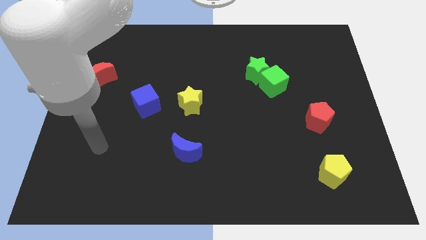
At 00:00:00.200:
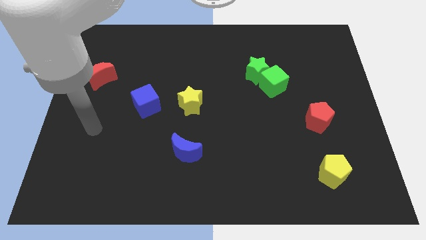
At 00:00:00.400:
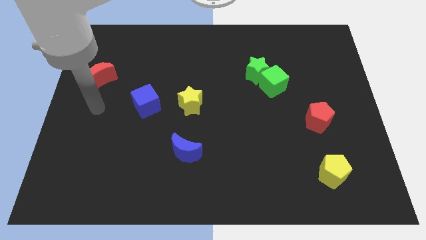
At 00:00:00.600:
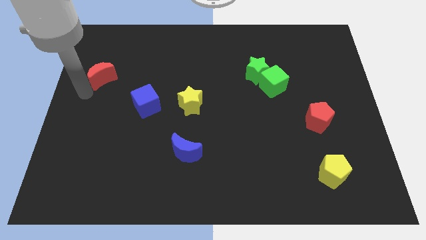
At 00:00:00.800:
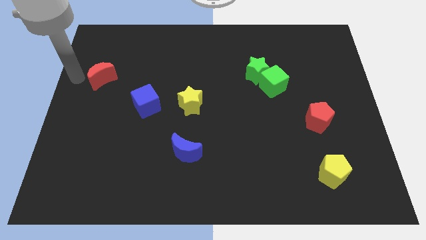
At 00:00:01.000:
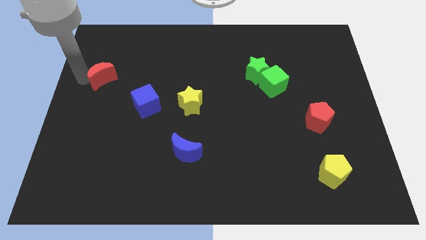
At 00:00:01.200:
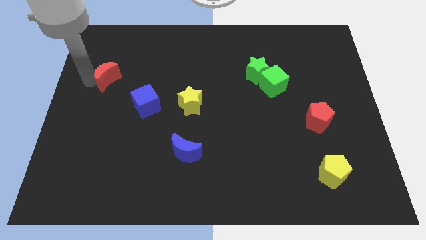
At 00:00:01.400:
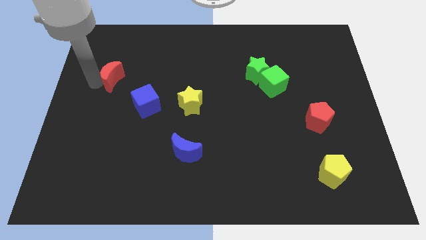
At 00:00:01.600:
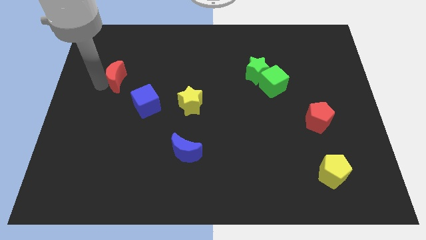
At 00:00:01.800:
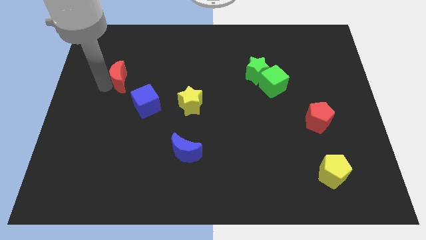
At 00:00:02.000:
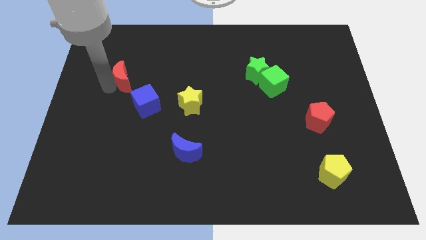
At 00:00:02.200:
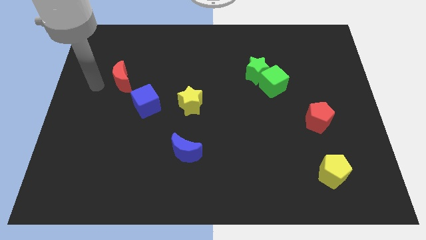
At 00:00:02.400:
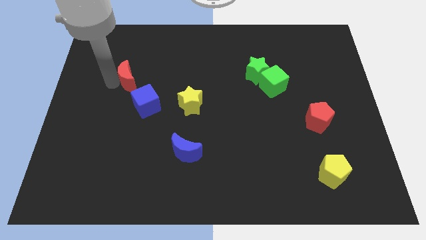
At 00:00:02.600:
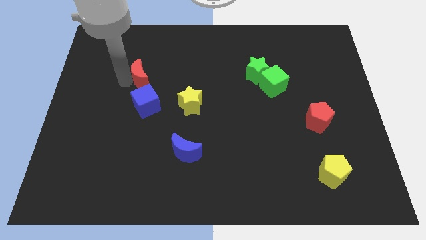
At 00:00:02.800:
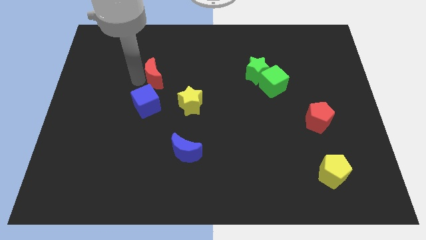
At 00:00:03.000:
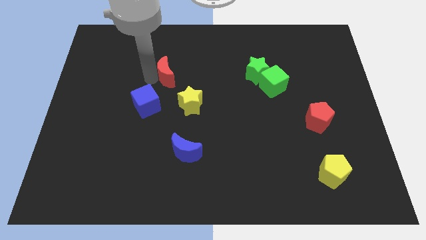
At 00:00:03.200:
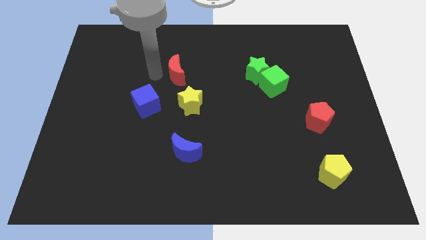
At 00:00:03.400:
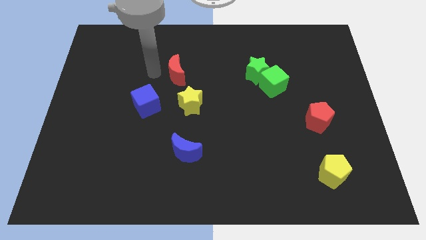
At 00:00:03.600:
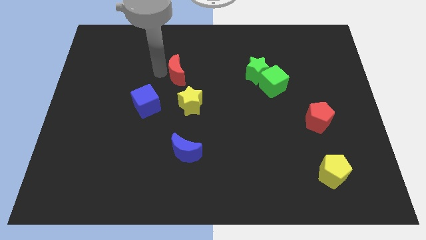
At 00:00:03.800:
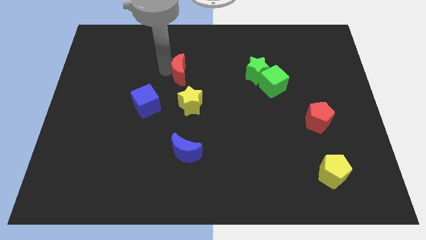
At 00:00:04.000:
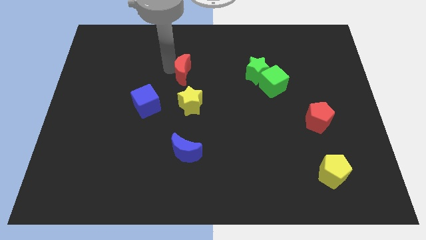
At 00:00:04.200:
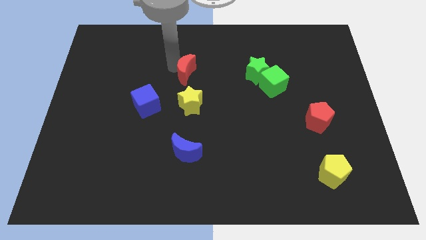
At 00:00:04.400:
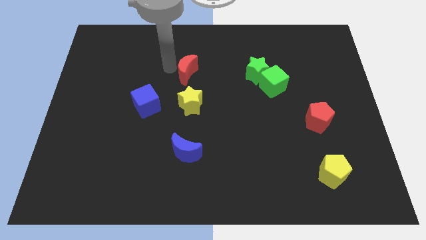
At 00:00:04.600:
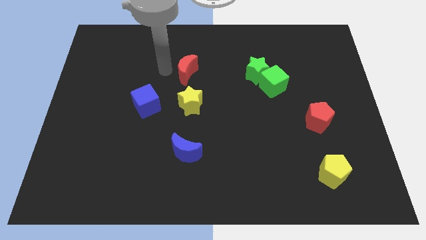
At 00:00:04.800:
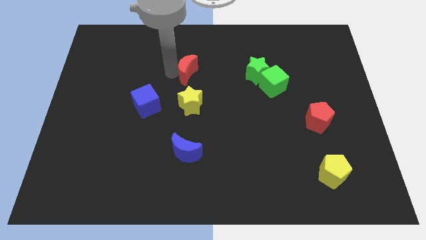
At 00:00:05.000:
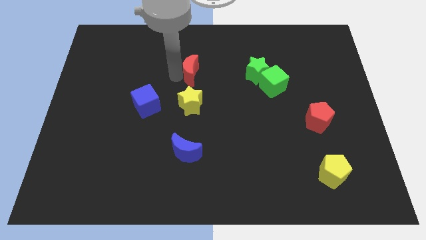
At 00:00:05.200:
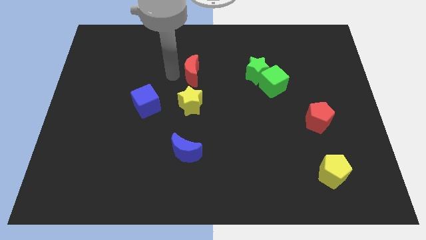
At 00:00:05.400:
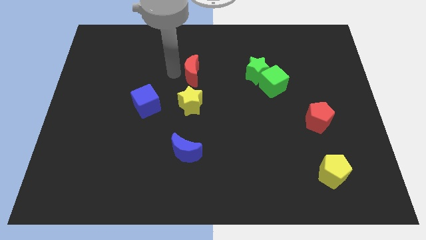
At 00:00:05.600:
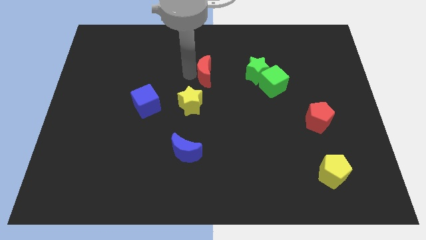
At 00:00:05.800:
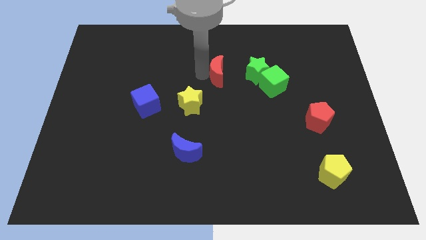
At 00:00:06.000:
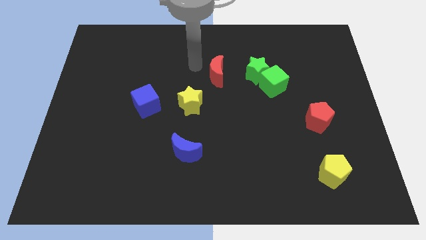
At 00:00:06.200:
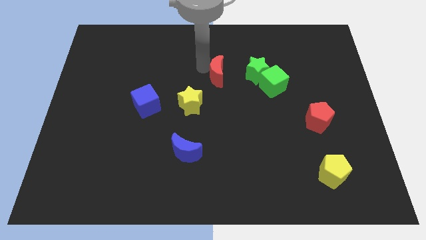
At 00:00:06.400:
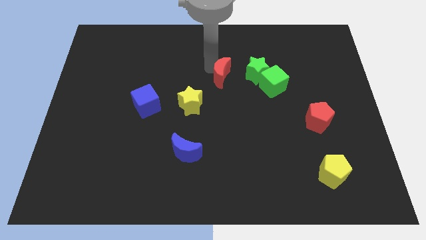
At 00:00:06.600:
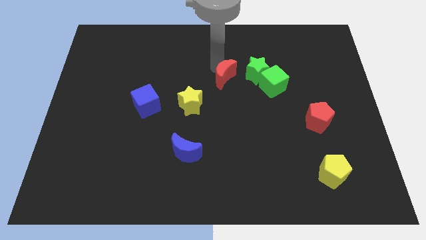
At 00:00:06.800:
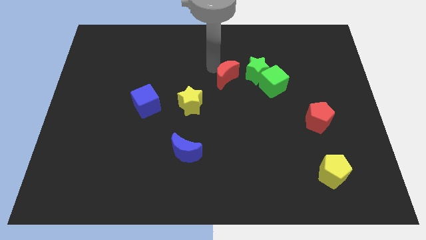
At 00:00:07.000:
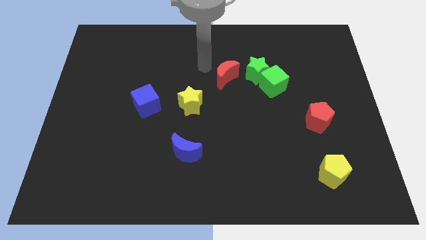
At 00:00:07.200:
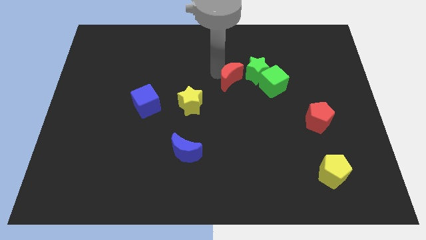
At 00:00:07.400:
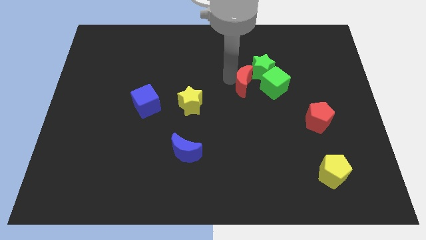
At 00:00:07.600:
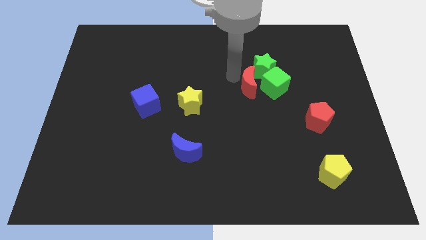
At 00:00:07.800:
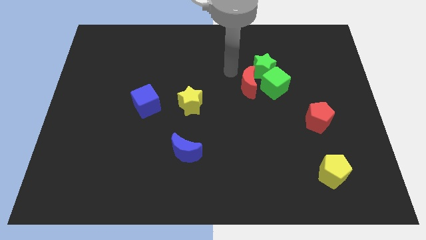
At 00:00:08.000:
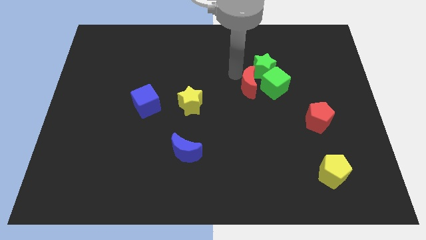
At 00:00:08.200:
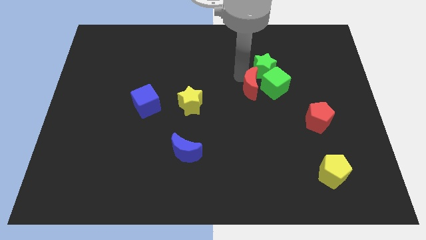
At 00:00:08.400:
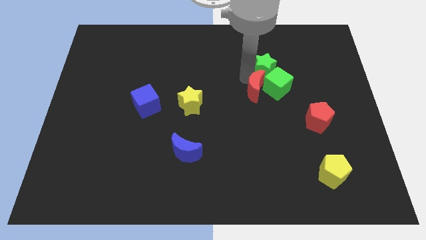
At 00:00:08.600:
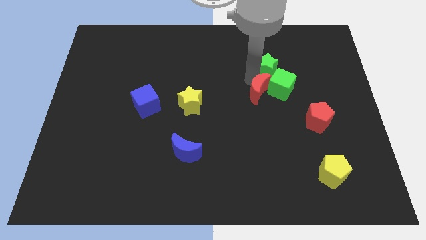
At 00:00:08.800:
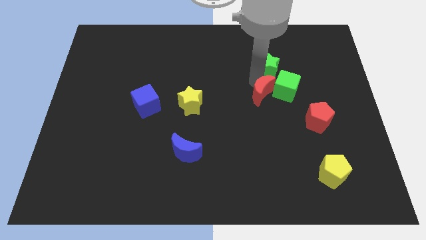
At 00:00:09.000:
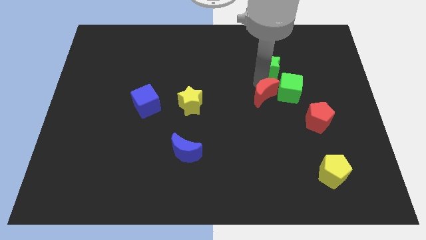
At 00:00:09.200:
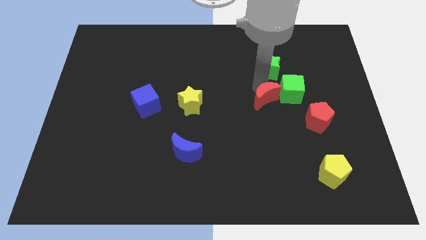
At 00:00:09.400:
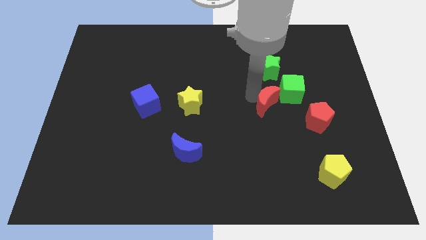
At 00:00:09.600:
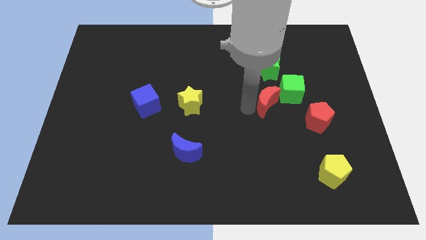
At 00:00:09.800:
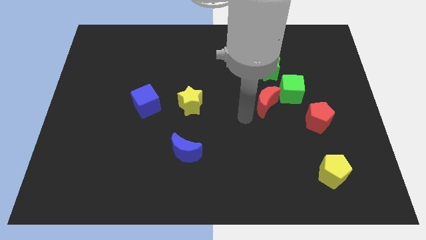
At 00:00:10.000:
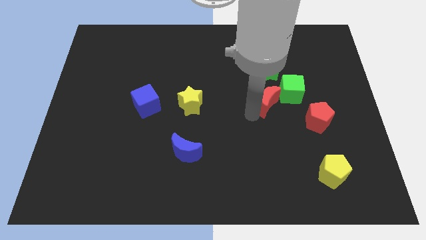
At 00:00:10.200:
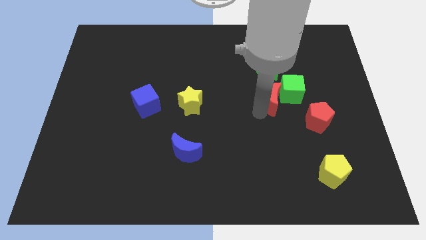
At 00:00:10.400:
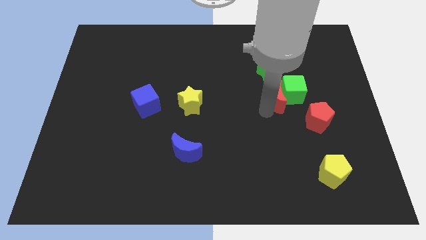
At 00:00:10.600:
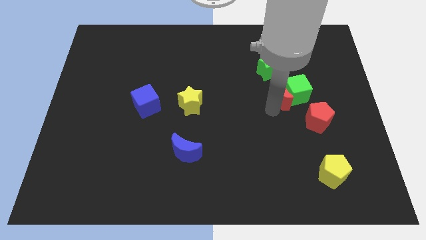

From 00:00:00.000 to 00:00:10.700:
slide the red moon to the bottom right of the green star

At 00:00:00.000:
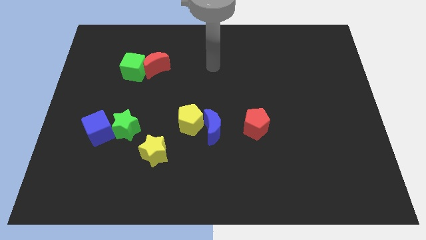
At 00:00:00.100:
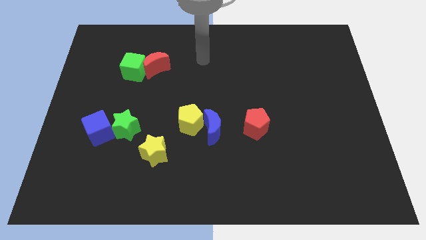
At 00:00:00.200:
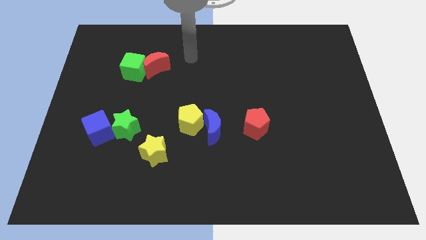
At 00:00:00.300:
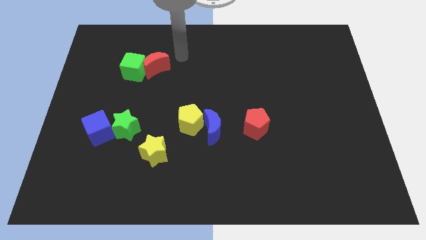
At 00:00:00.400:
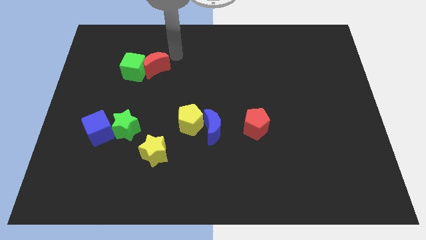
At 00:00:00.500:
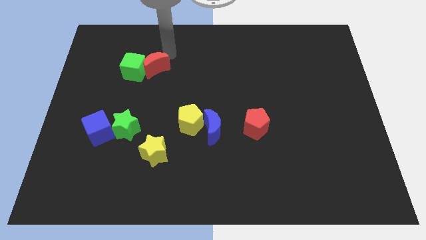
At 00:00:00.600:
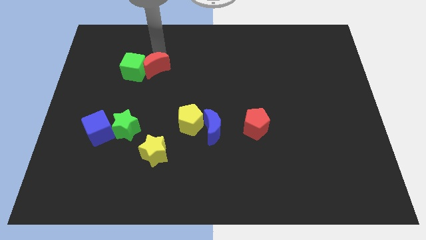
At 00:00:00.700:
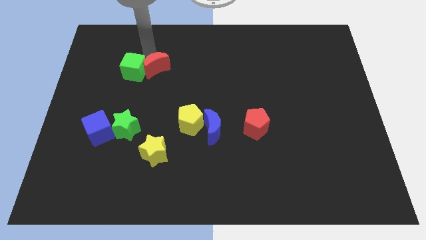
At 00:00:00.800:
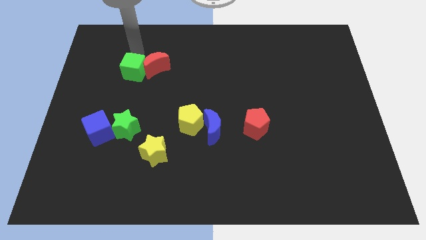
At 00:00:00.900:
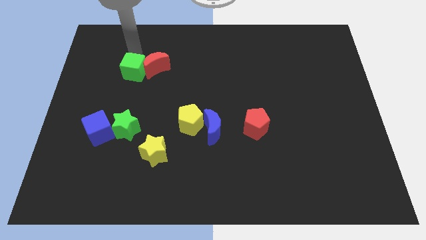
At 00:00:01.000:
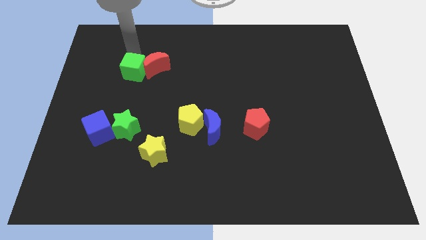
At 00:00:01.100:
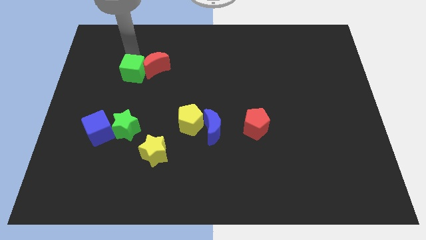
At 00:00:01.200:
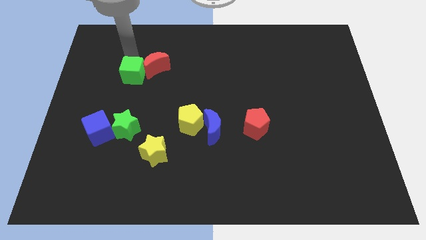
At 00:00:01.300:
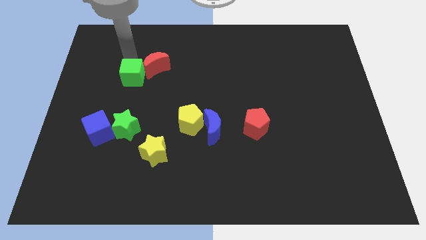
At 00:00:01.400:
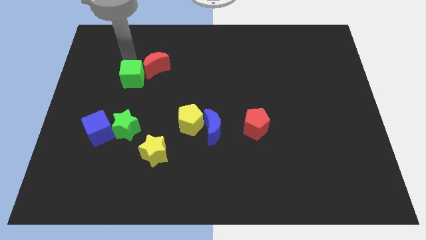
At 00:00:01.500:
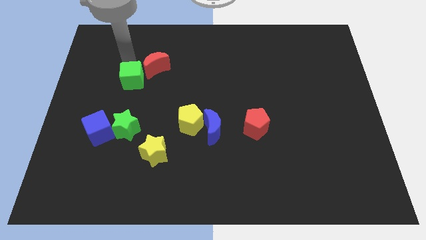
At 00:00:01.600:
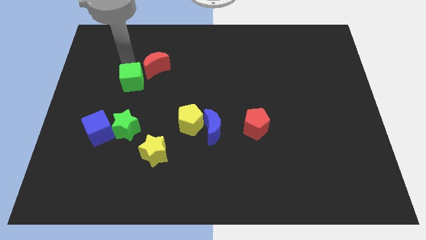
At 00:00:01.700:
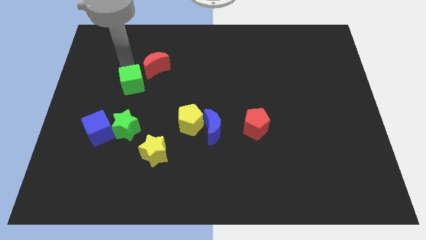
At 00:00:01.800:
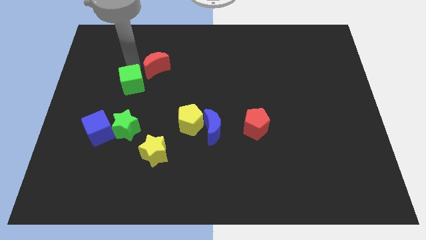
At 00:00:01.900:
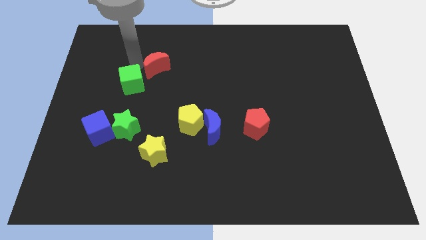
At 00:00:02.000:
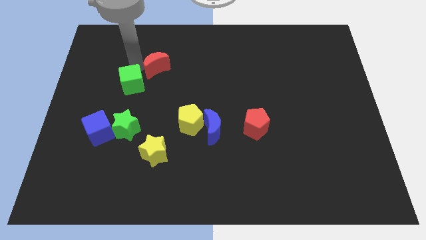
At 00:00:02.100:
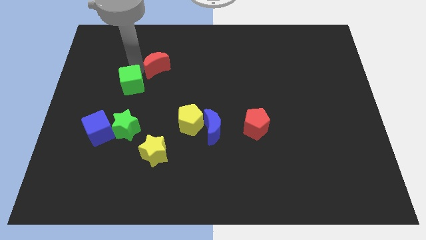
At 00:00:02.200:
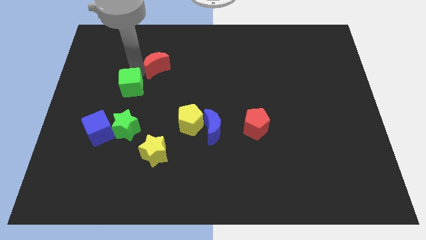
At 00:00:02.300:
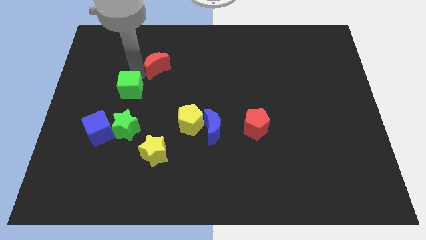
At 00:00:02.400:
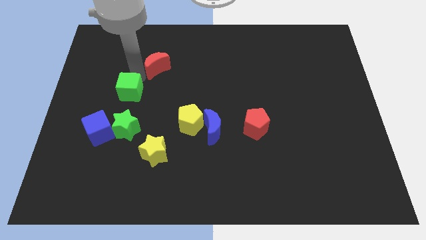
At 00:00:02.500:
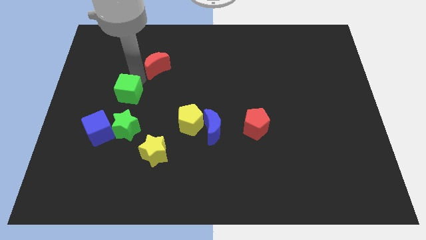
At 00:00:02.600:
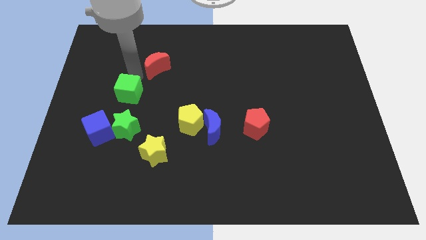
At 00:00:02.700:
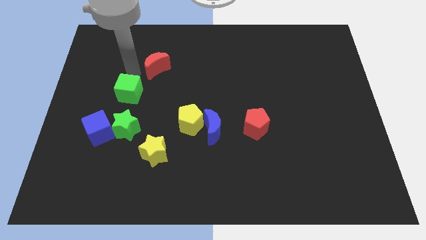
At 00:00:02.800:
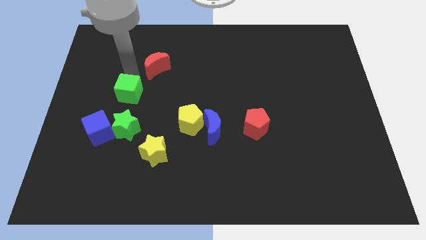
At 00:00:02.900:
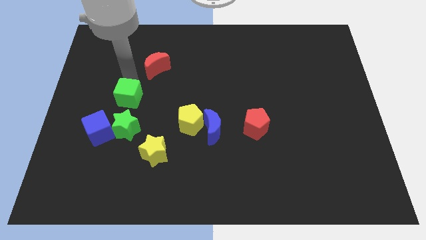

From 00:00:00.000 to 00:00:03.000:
move the green cube to the top right side of the blue cube
